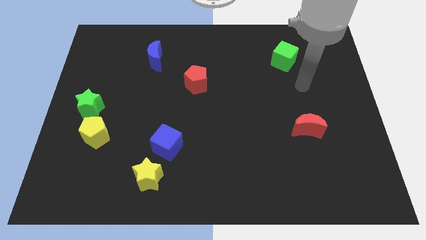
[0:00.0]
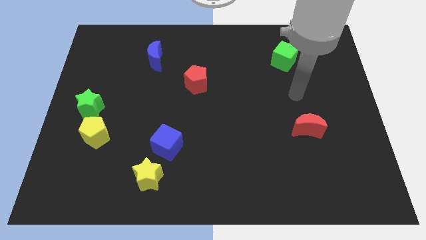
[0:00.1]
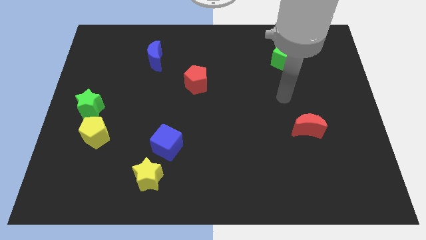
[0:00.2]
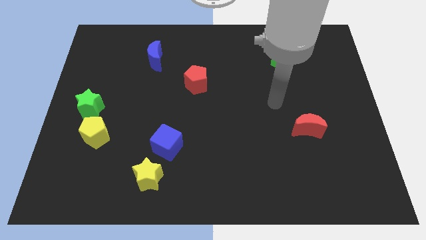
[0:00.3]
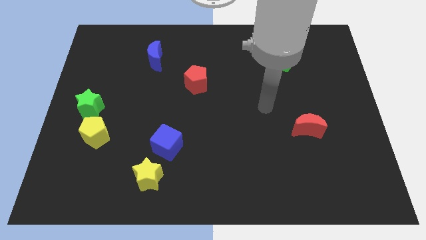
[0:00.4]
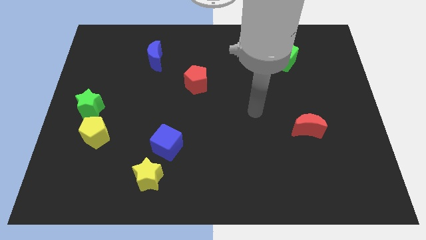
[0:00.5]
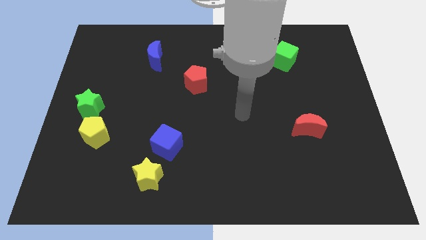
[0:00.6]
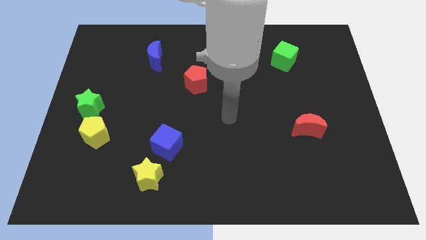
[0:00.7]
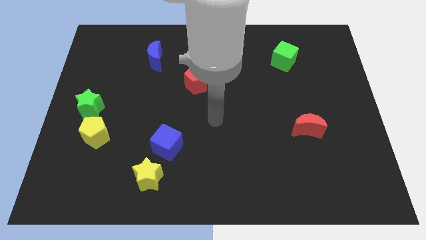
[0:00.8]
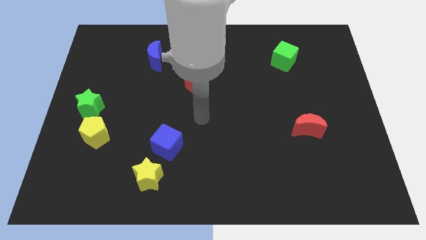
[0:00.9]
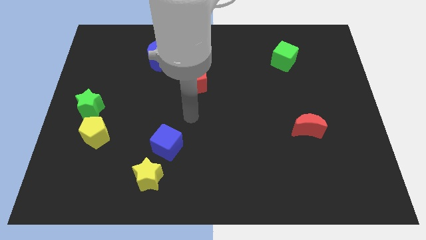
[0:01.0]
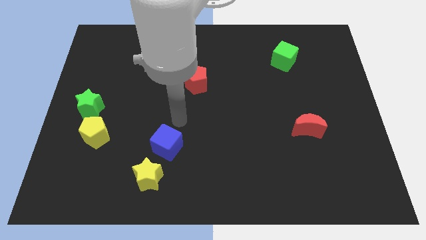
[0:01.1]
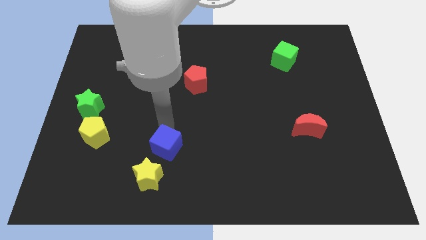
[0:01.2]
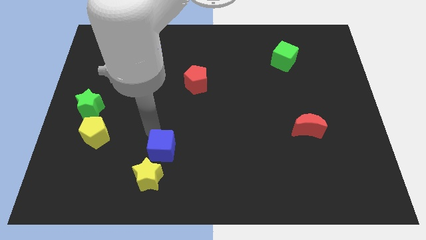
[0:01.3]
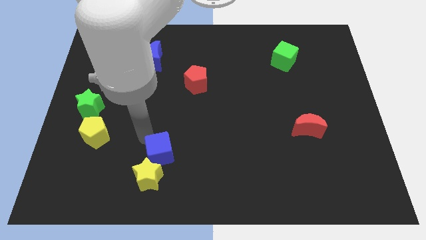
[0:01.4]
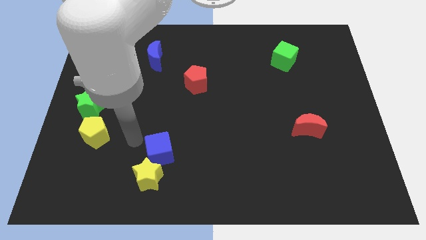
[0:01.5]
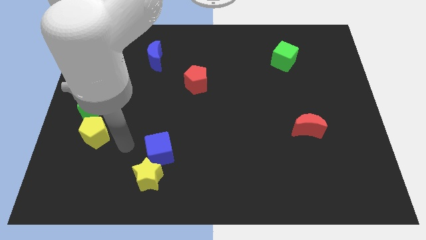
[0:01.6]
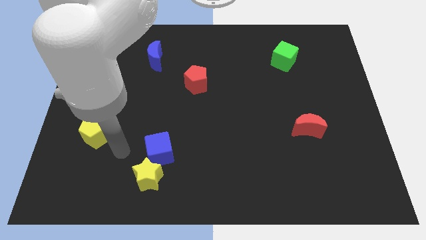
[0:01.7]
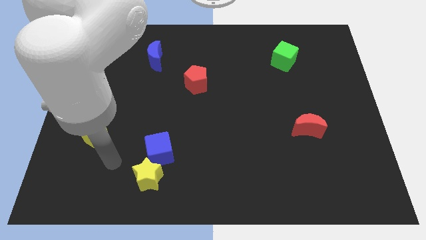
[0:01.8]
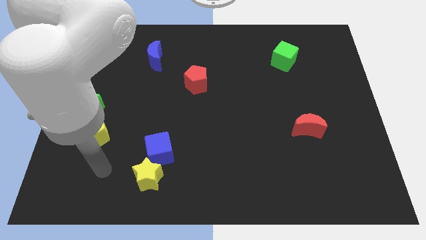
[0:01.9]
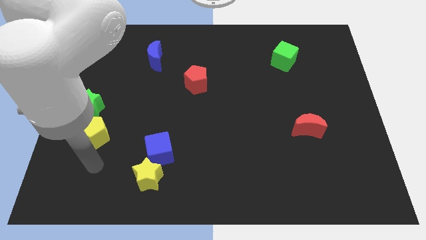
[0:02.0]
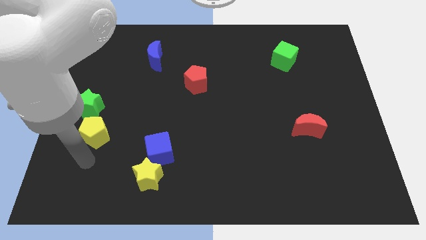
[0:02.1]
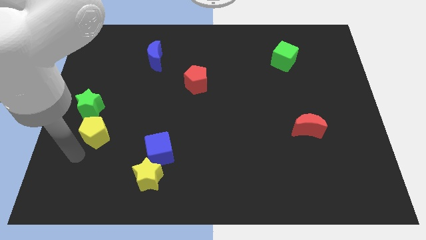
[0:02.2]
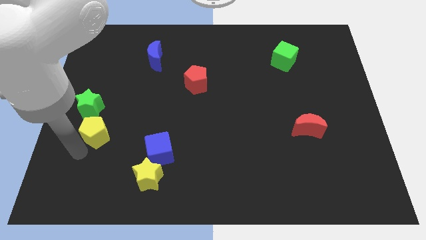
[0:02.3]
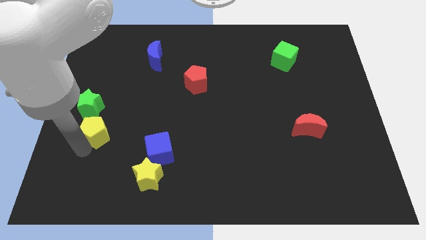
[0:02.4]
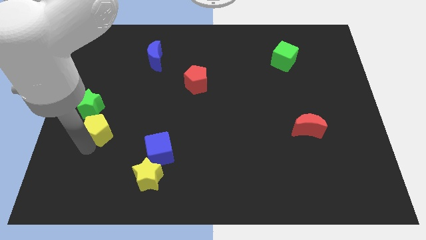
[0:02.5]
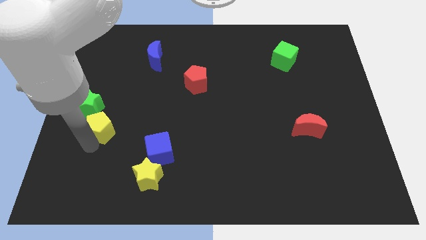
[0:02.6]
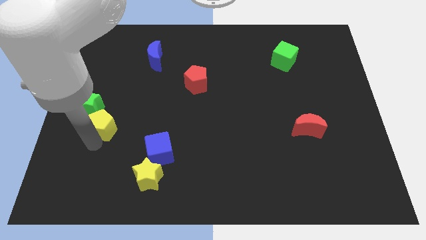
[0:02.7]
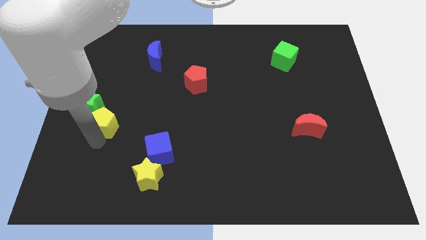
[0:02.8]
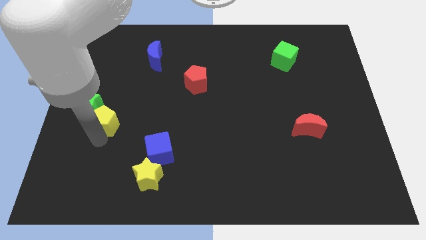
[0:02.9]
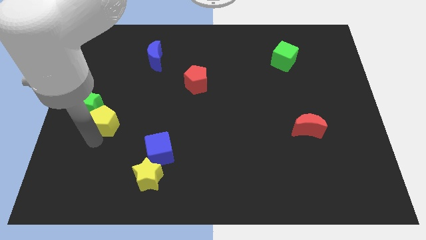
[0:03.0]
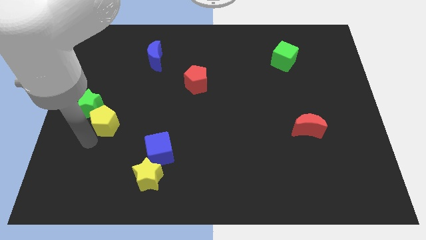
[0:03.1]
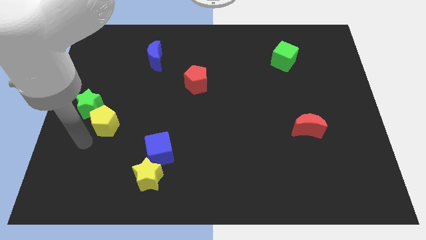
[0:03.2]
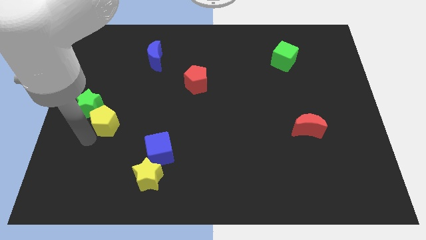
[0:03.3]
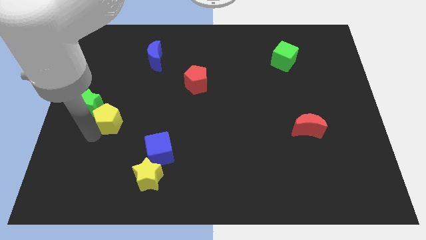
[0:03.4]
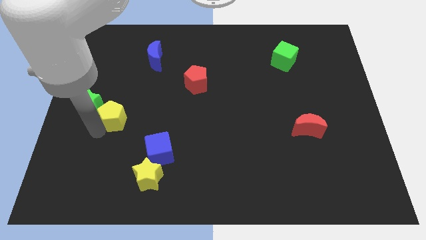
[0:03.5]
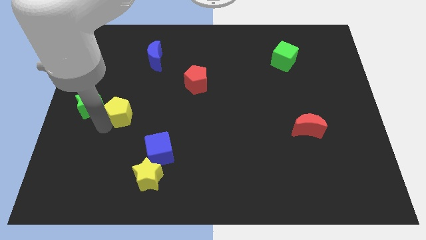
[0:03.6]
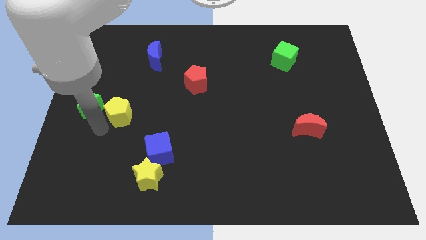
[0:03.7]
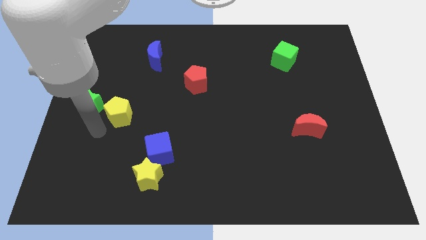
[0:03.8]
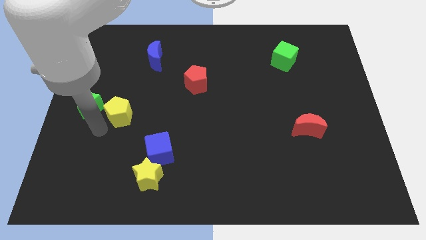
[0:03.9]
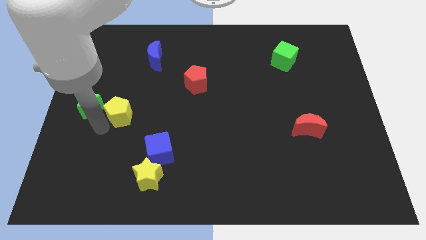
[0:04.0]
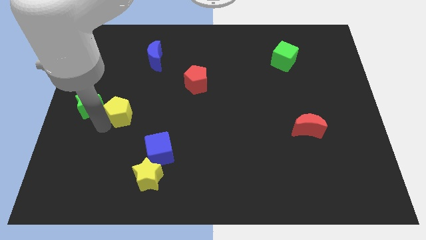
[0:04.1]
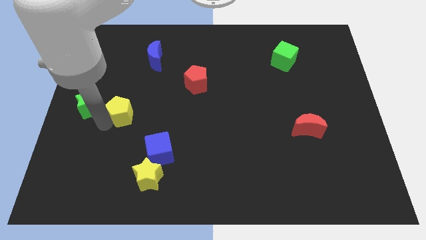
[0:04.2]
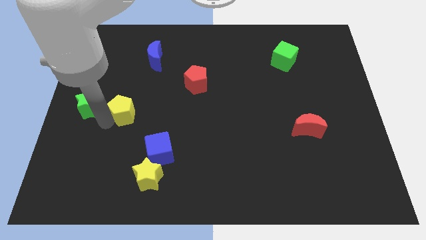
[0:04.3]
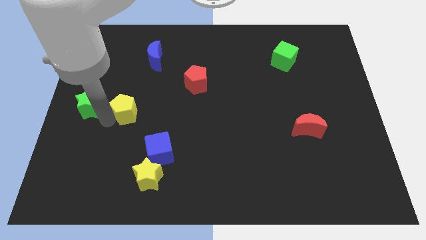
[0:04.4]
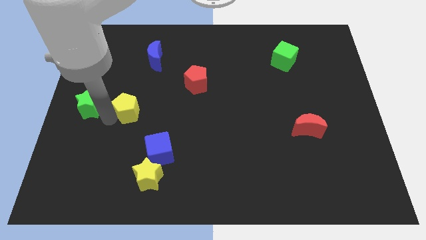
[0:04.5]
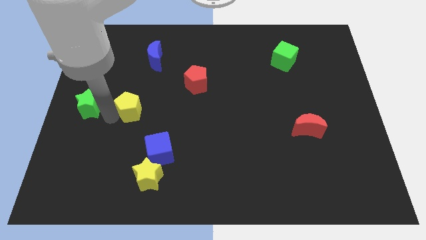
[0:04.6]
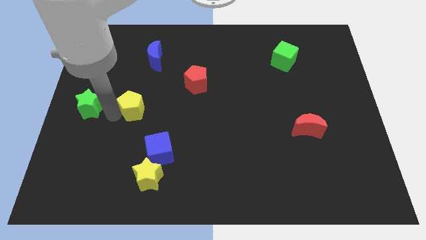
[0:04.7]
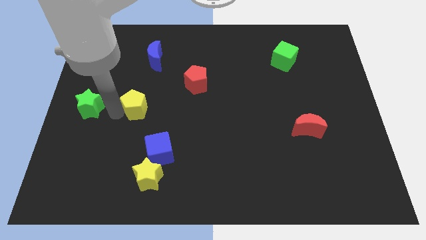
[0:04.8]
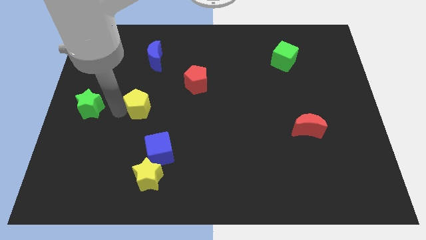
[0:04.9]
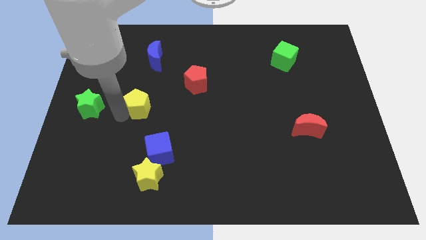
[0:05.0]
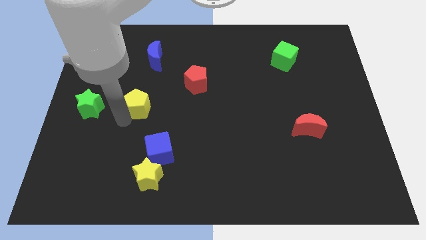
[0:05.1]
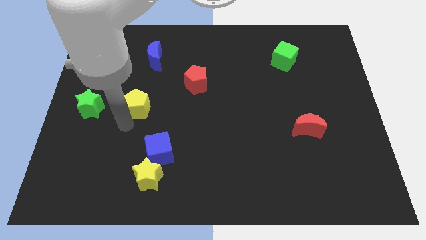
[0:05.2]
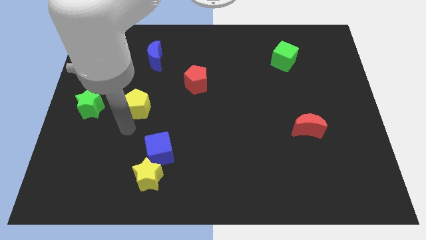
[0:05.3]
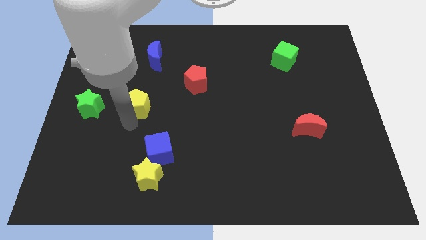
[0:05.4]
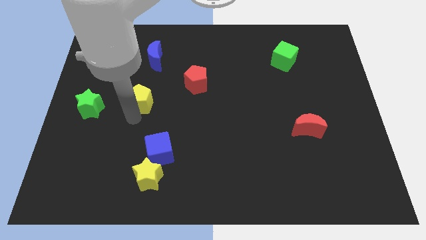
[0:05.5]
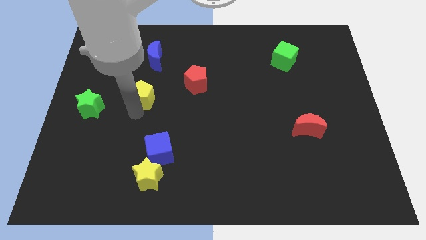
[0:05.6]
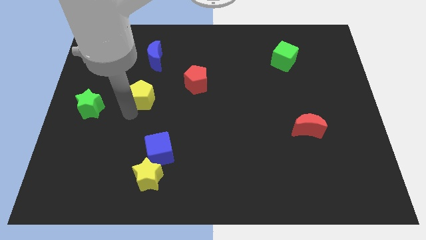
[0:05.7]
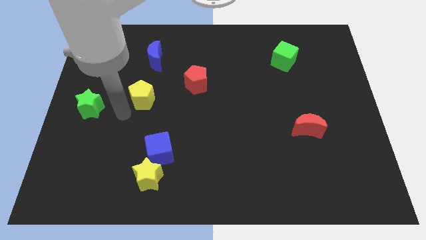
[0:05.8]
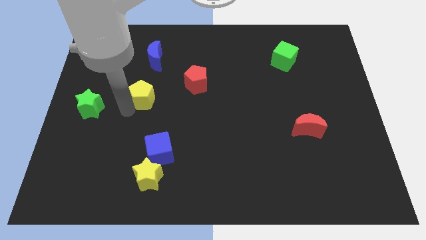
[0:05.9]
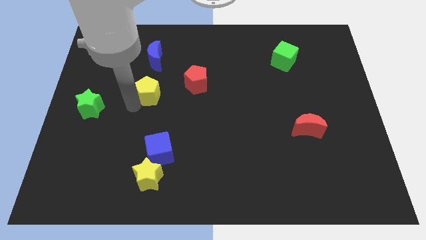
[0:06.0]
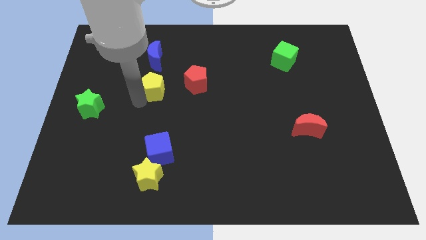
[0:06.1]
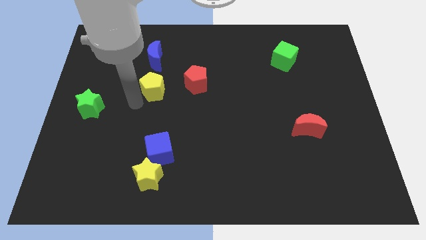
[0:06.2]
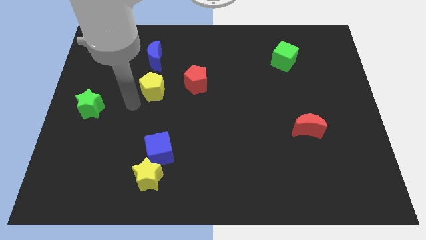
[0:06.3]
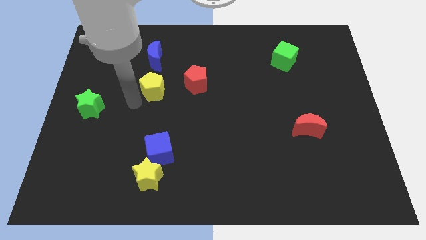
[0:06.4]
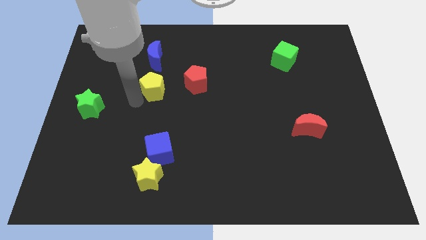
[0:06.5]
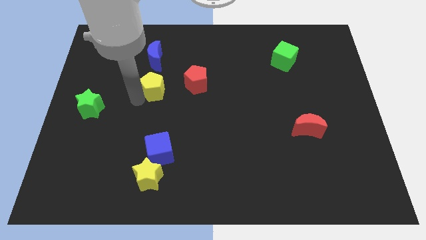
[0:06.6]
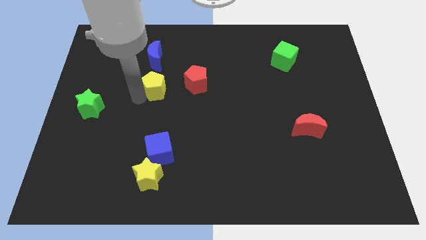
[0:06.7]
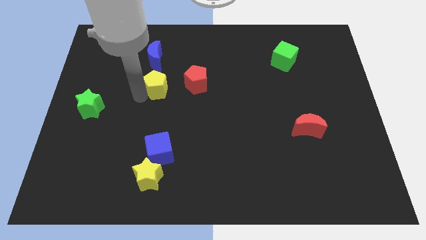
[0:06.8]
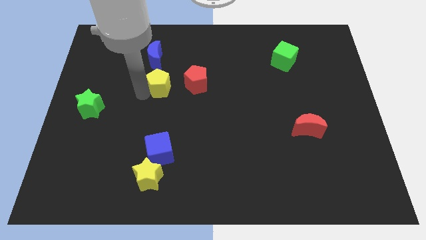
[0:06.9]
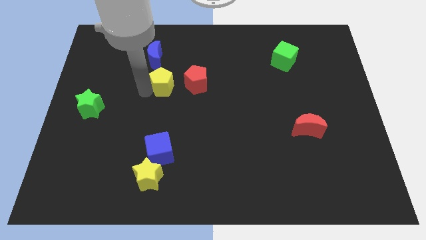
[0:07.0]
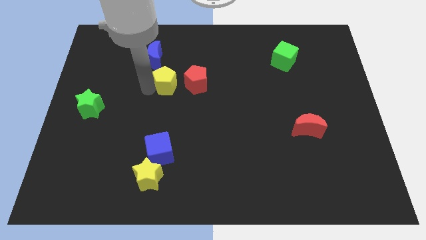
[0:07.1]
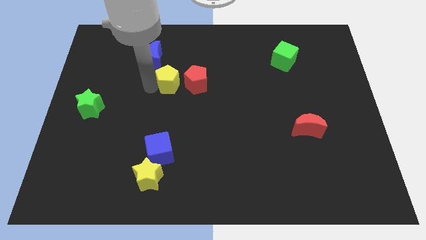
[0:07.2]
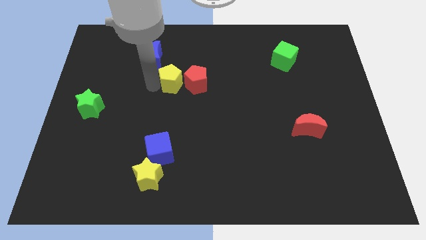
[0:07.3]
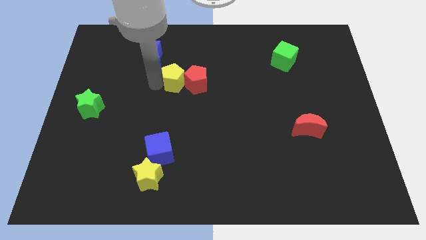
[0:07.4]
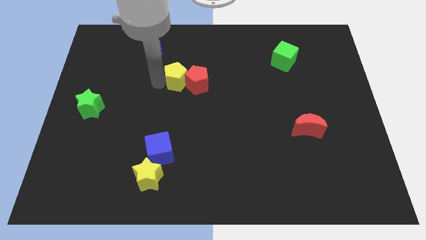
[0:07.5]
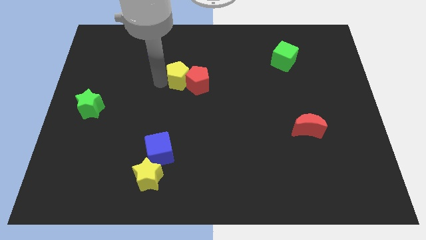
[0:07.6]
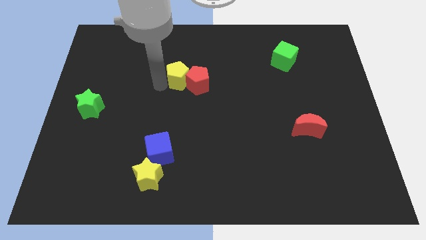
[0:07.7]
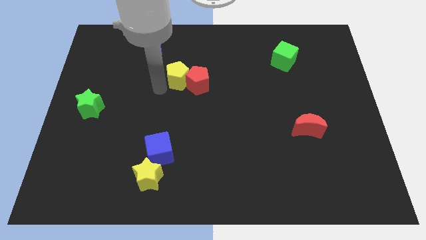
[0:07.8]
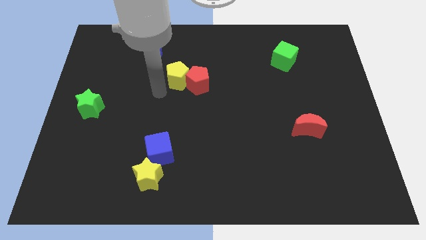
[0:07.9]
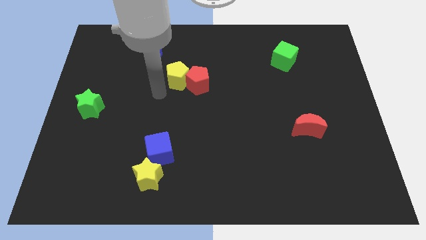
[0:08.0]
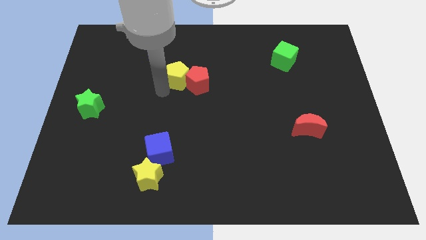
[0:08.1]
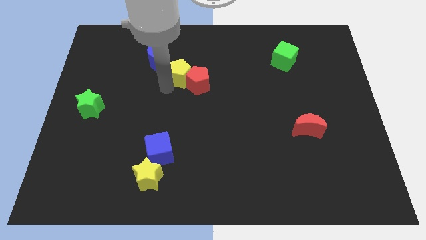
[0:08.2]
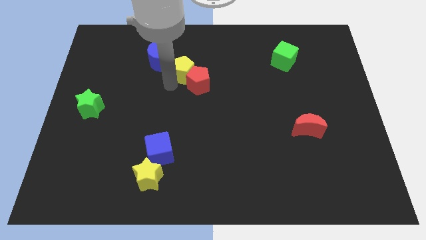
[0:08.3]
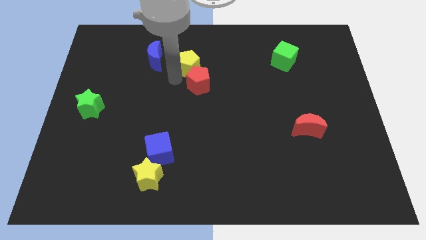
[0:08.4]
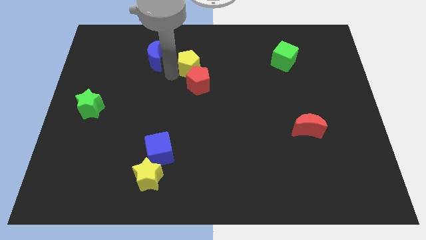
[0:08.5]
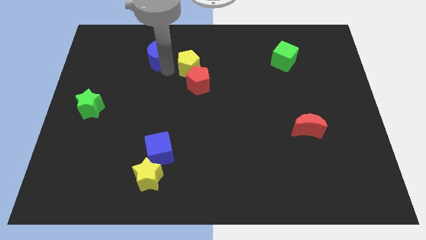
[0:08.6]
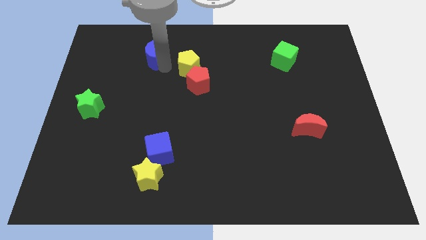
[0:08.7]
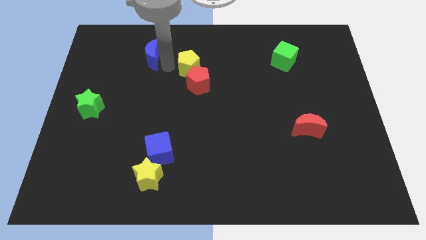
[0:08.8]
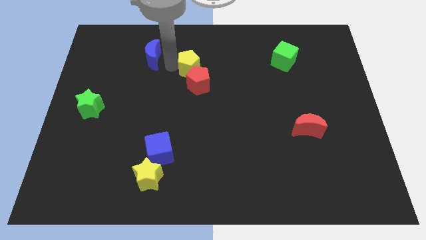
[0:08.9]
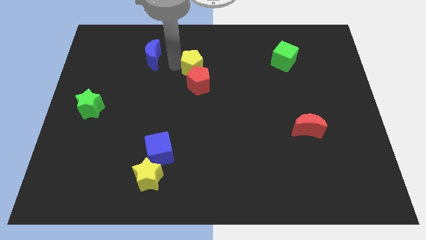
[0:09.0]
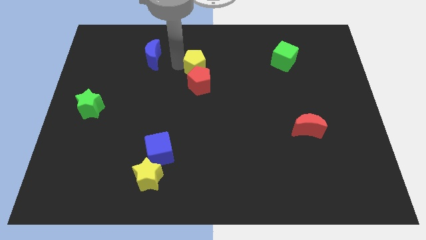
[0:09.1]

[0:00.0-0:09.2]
move the yellow pentagon diagonally up and to the right of the red pentagon
